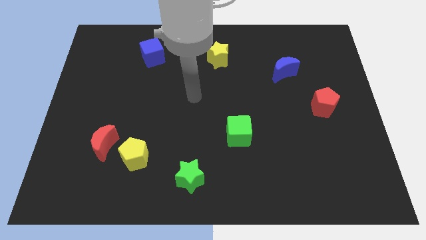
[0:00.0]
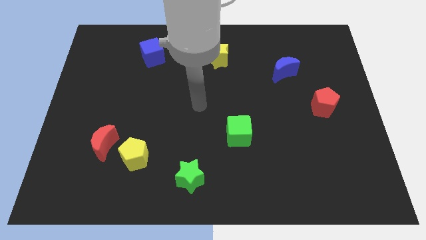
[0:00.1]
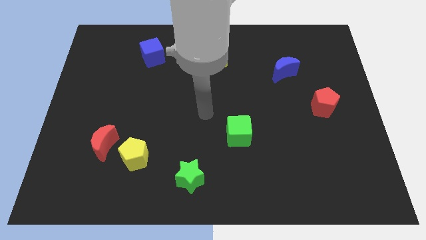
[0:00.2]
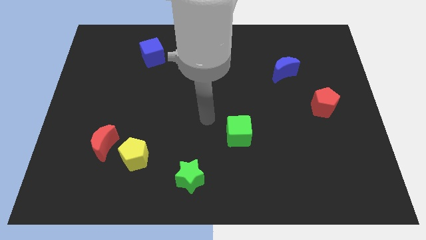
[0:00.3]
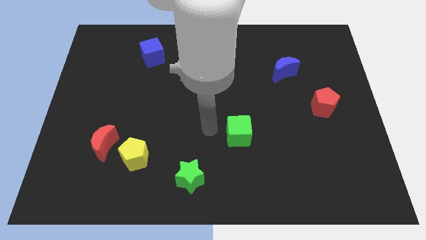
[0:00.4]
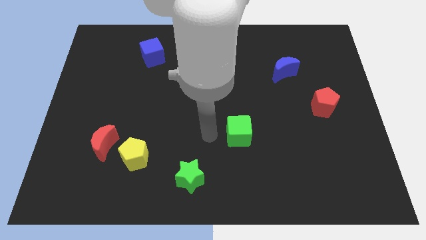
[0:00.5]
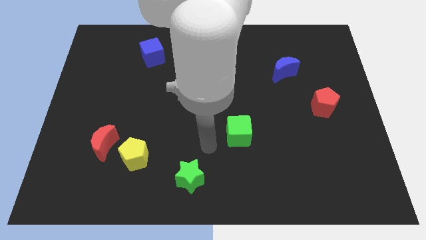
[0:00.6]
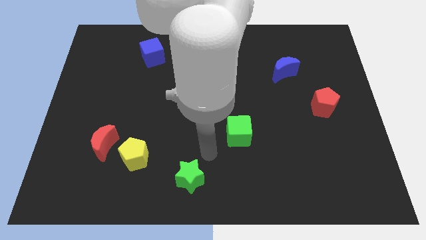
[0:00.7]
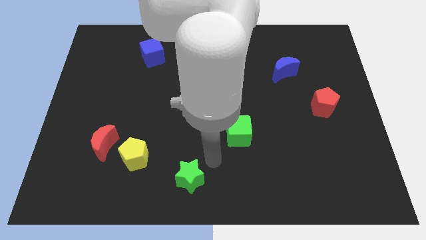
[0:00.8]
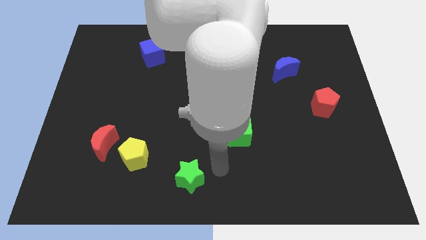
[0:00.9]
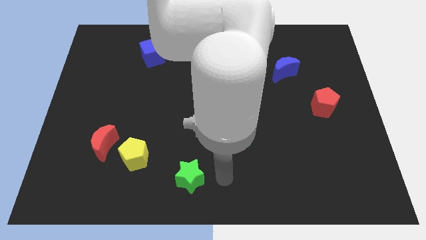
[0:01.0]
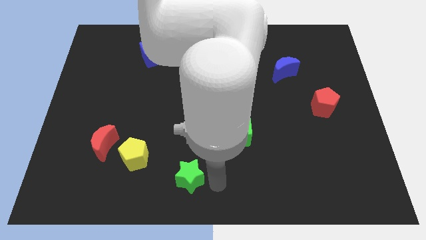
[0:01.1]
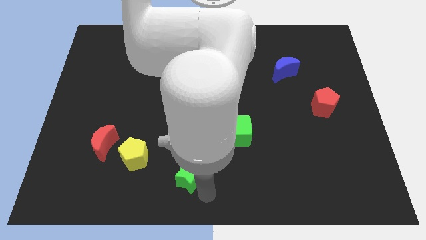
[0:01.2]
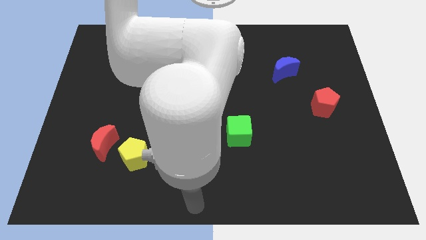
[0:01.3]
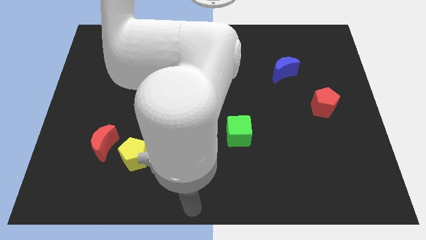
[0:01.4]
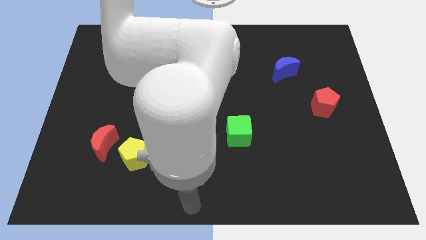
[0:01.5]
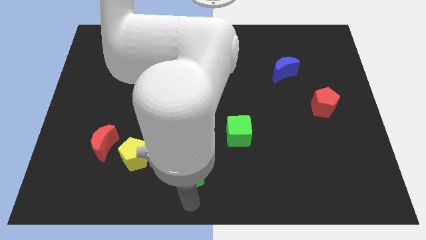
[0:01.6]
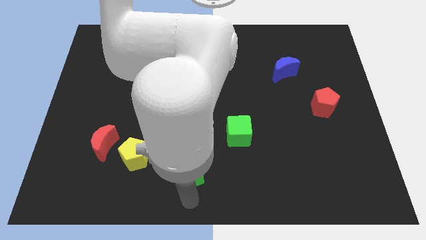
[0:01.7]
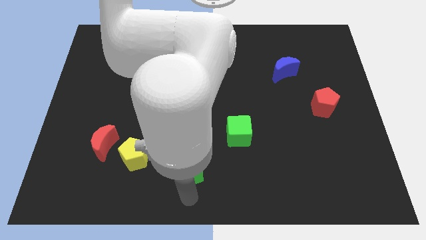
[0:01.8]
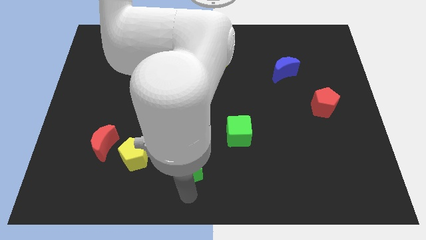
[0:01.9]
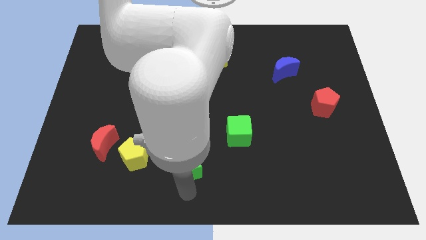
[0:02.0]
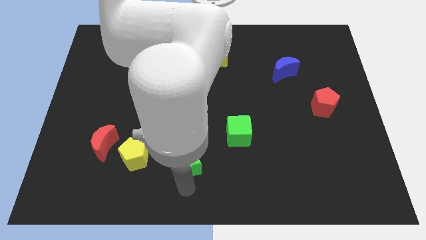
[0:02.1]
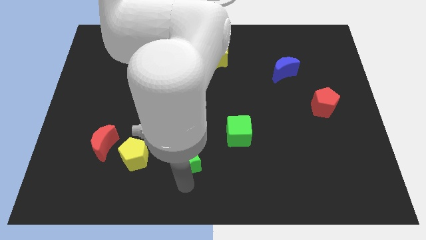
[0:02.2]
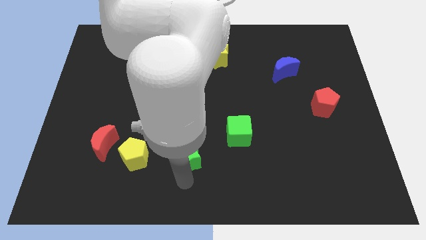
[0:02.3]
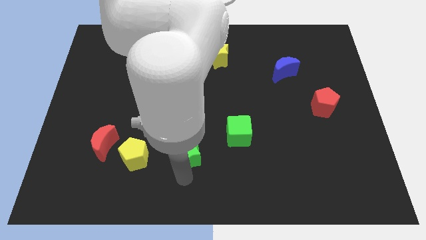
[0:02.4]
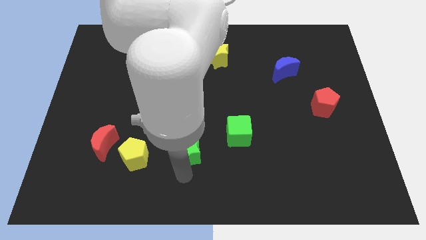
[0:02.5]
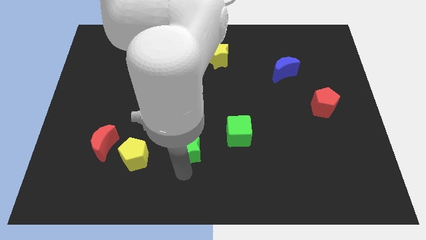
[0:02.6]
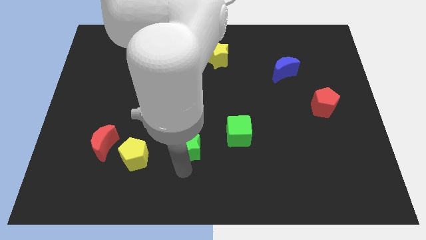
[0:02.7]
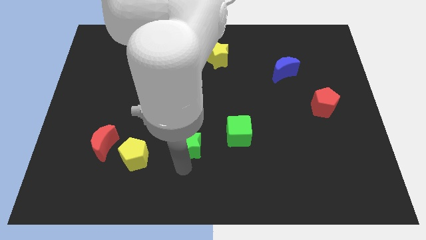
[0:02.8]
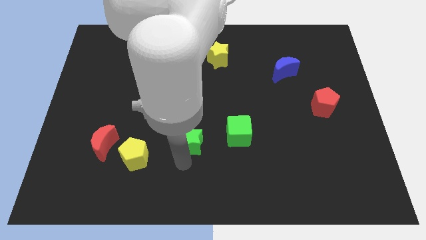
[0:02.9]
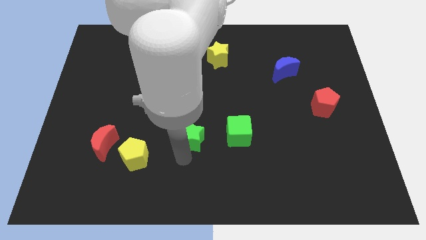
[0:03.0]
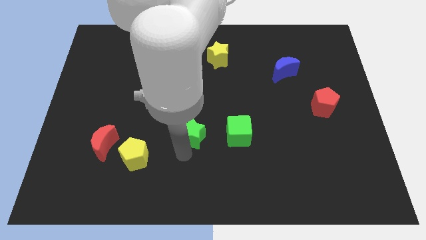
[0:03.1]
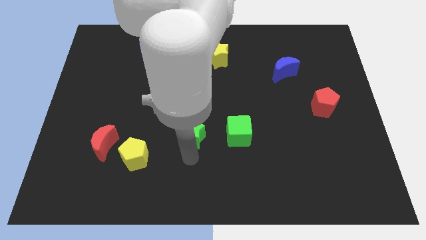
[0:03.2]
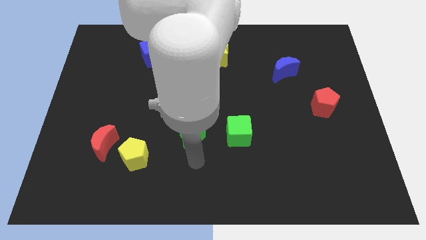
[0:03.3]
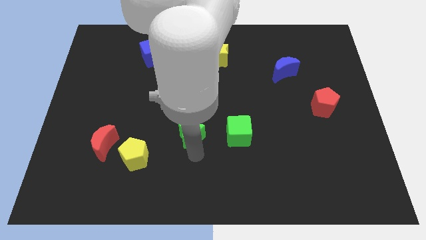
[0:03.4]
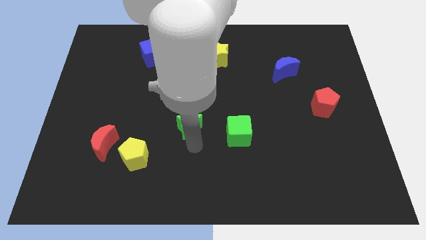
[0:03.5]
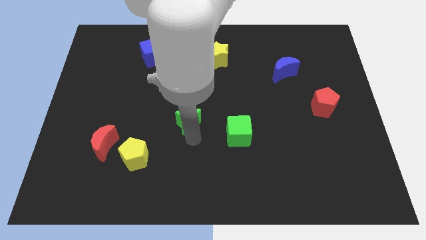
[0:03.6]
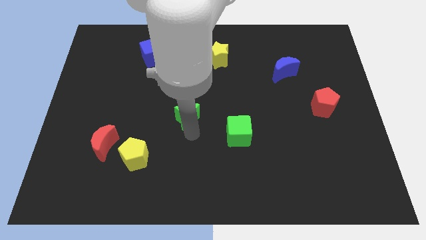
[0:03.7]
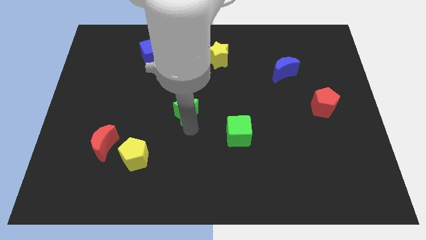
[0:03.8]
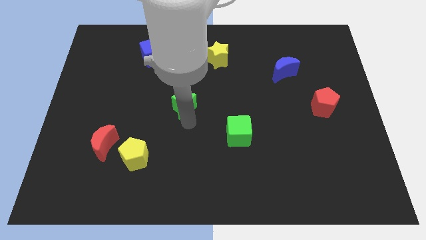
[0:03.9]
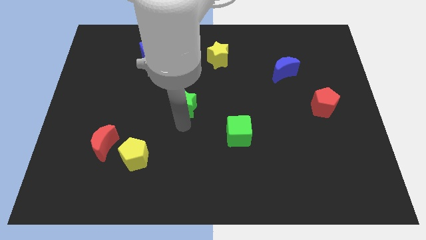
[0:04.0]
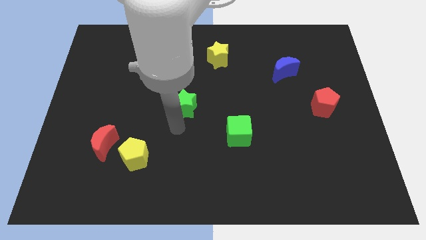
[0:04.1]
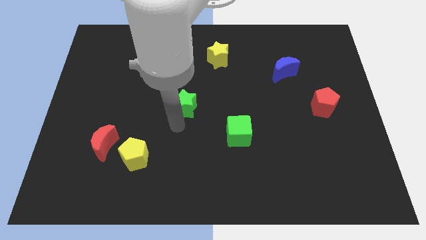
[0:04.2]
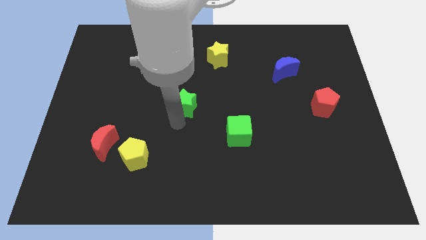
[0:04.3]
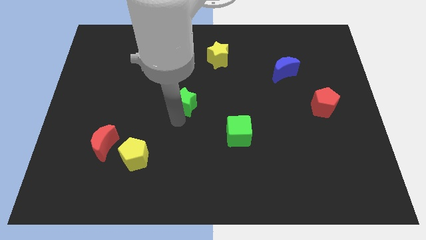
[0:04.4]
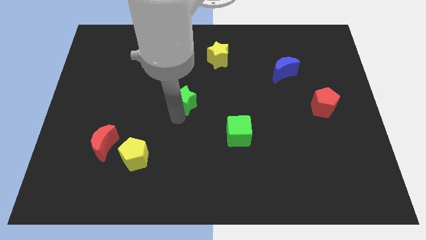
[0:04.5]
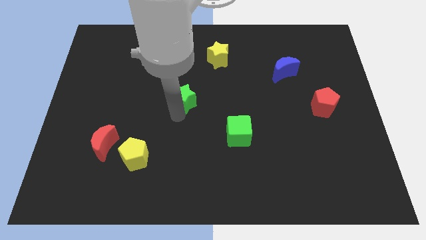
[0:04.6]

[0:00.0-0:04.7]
move the green star up

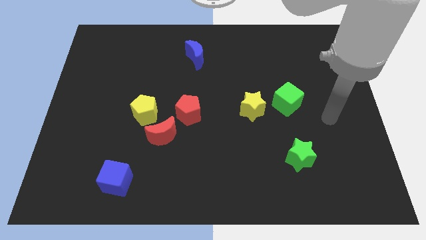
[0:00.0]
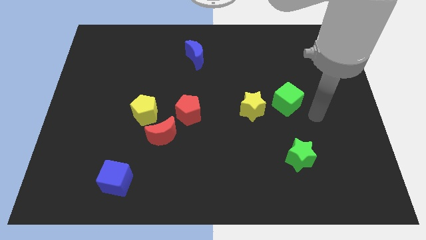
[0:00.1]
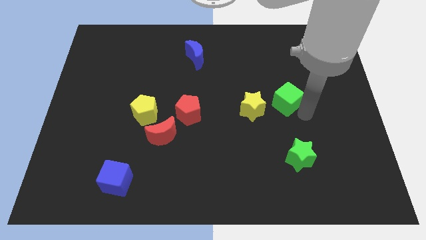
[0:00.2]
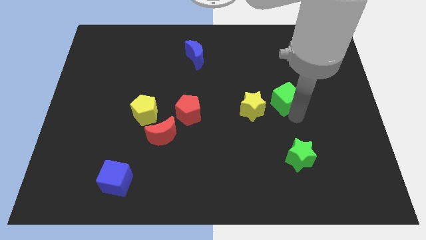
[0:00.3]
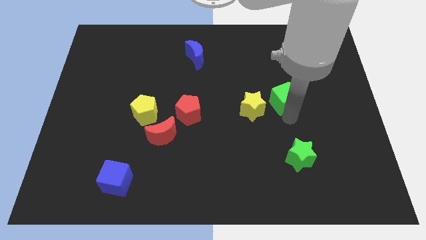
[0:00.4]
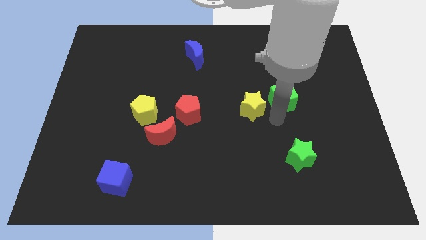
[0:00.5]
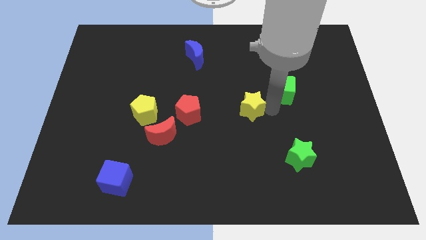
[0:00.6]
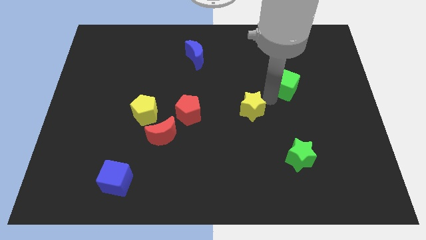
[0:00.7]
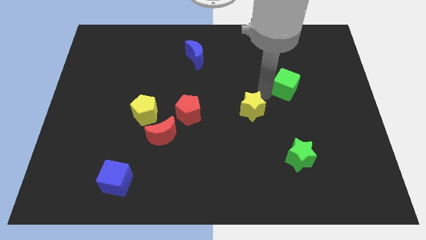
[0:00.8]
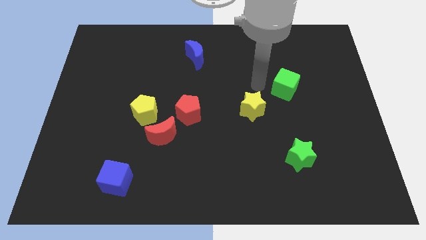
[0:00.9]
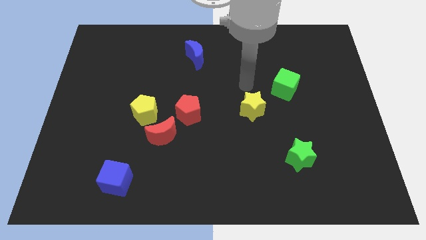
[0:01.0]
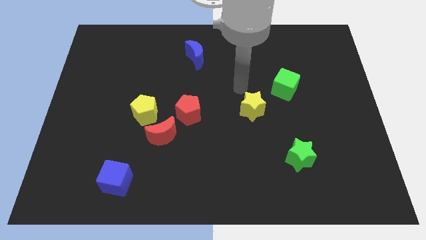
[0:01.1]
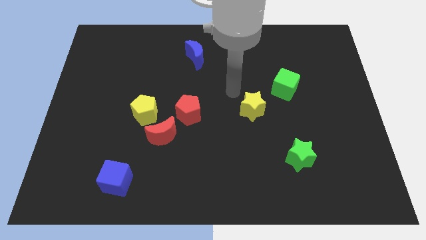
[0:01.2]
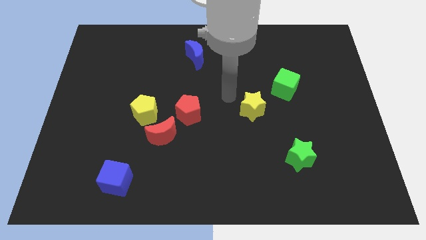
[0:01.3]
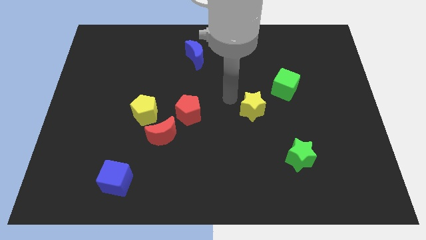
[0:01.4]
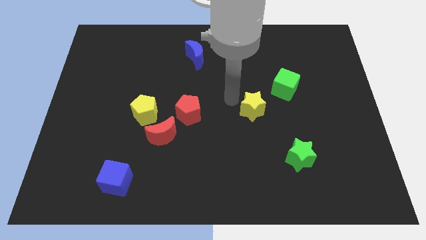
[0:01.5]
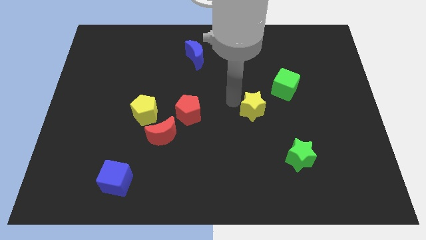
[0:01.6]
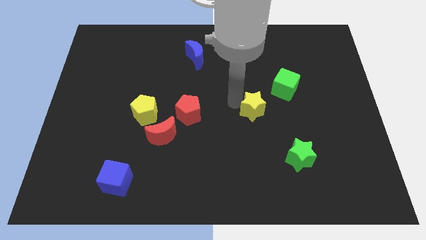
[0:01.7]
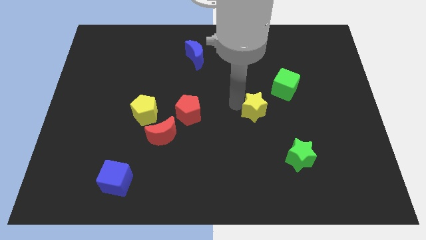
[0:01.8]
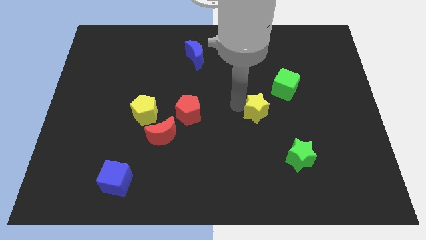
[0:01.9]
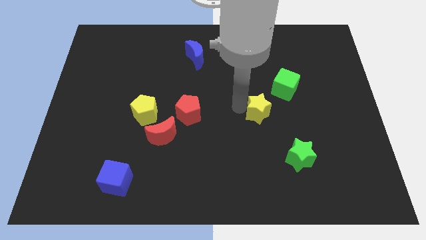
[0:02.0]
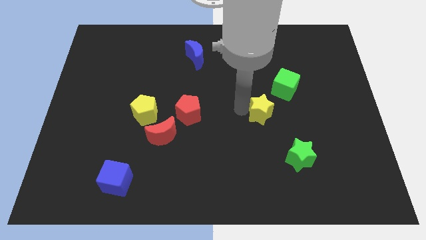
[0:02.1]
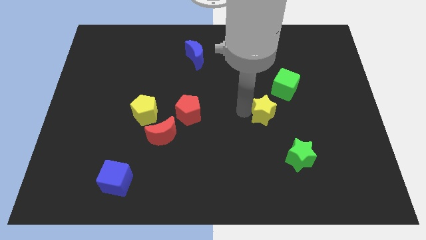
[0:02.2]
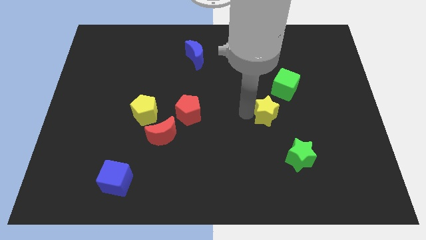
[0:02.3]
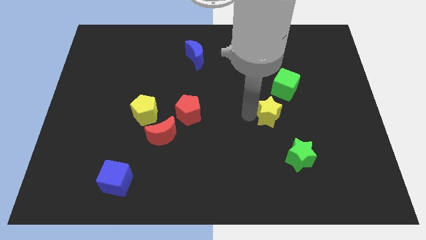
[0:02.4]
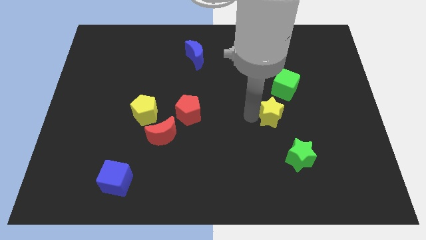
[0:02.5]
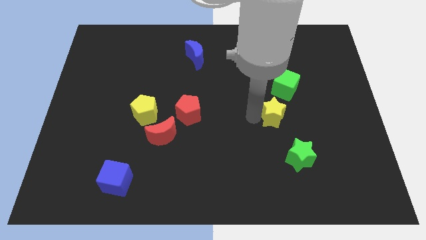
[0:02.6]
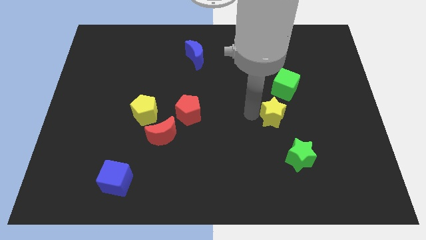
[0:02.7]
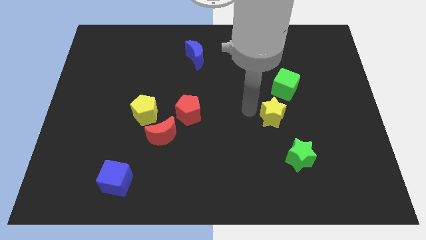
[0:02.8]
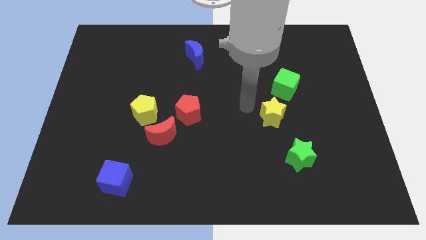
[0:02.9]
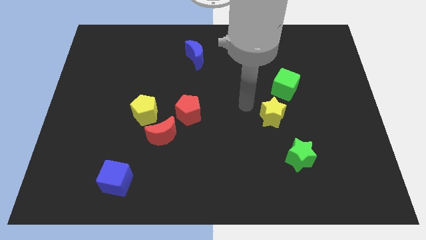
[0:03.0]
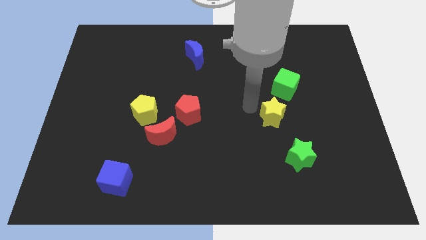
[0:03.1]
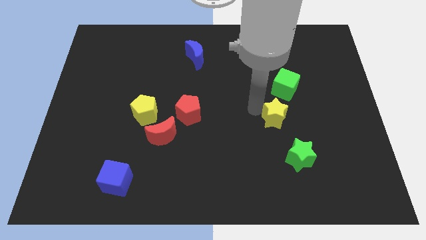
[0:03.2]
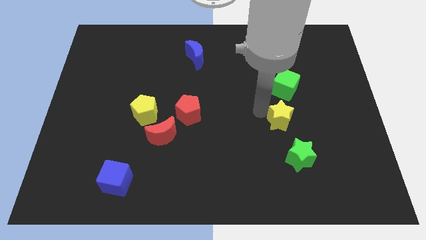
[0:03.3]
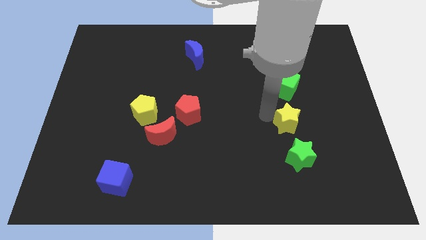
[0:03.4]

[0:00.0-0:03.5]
slightly slide the yellow star right
